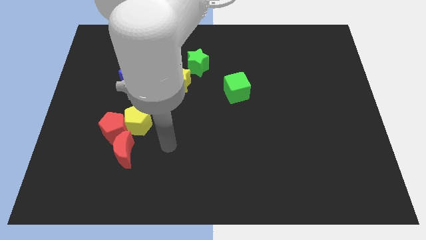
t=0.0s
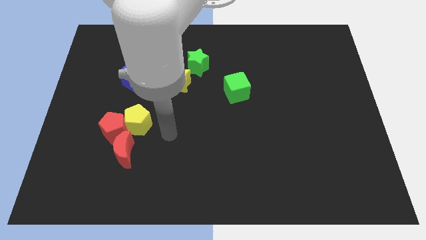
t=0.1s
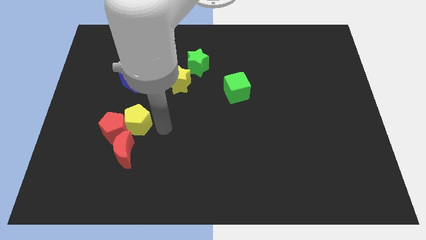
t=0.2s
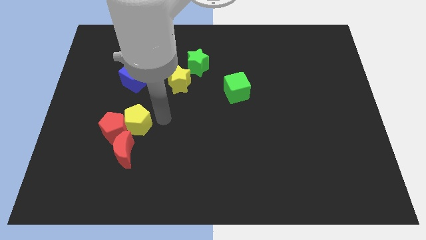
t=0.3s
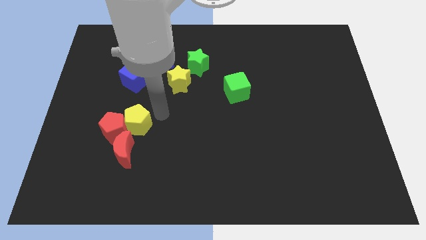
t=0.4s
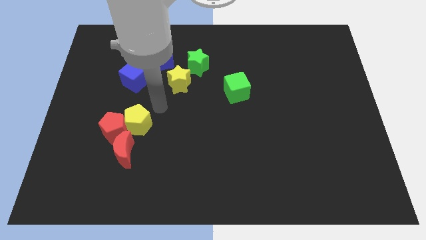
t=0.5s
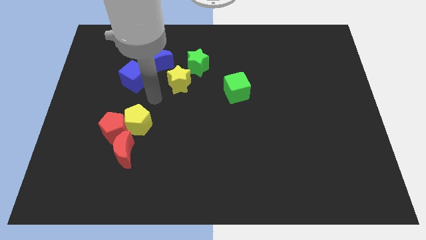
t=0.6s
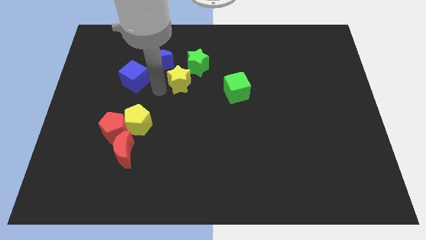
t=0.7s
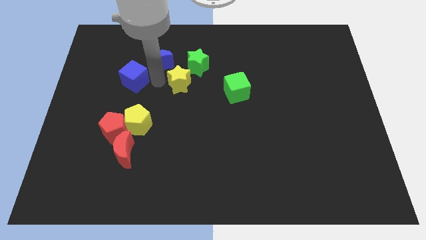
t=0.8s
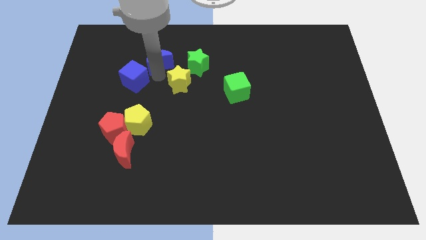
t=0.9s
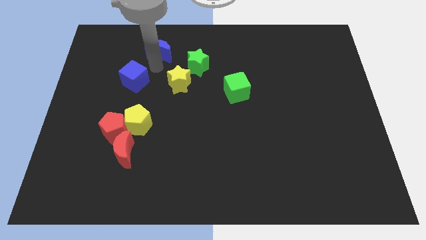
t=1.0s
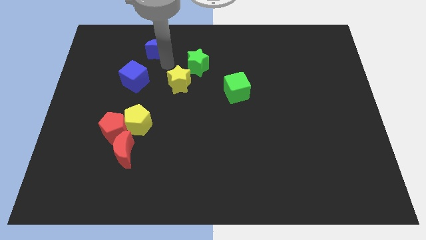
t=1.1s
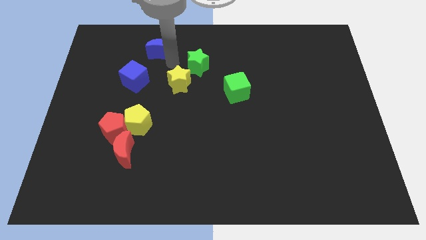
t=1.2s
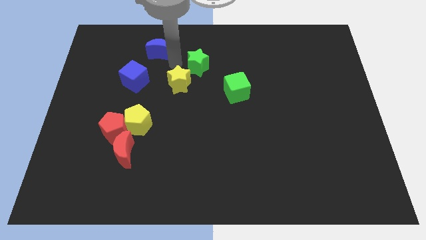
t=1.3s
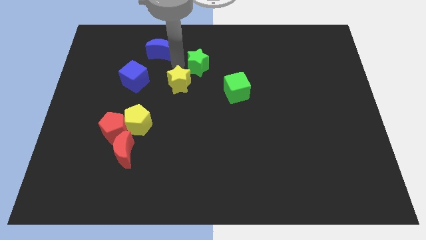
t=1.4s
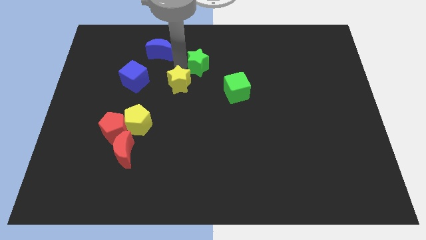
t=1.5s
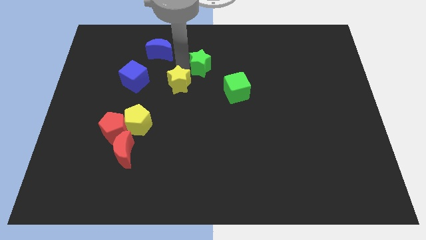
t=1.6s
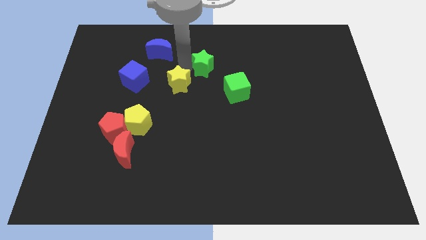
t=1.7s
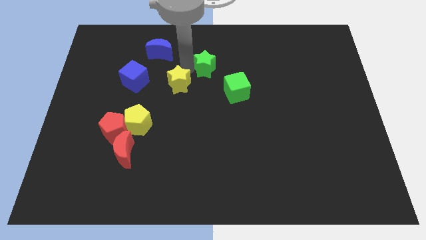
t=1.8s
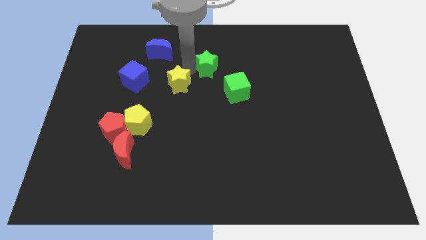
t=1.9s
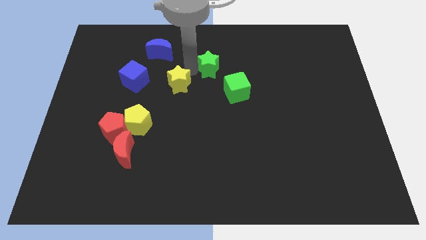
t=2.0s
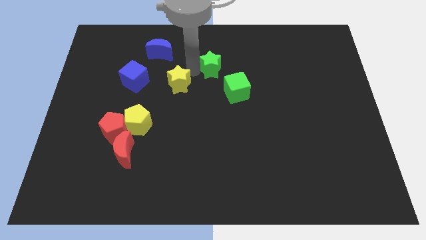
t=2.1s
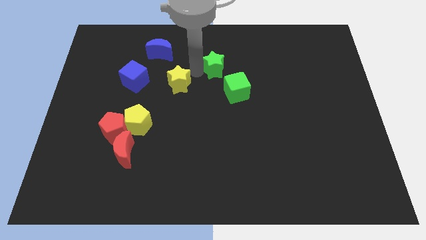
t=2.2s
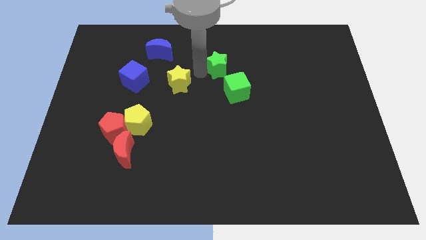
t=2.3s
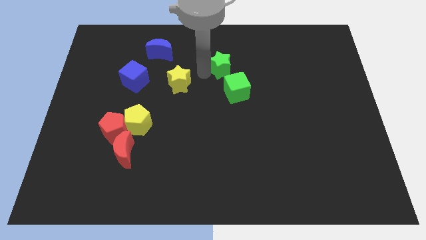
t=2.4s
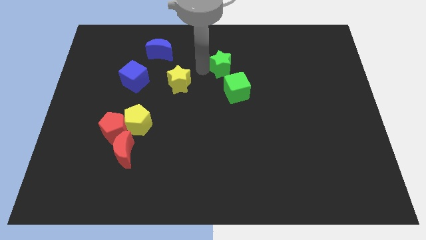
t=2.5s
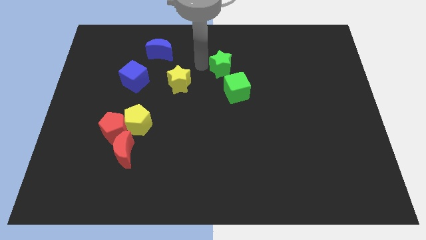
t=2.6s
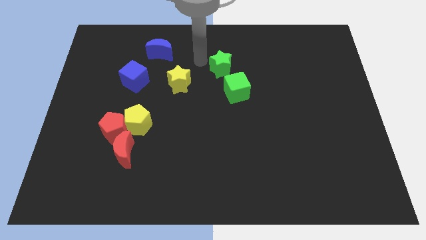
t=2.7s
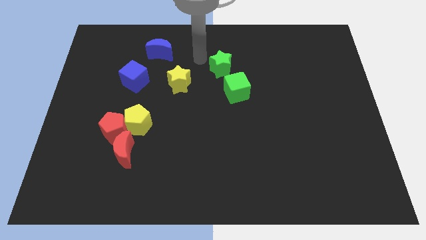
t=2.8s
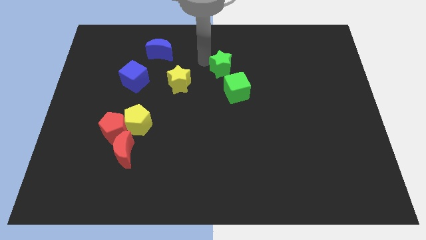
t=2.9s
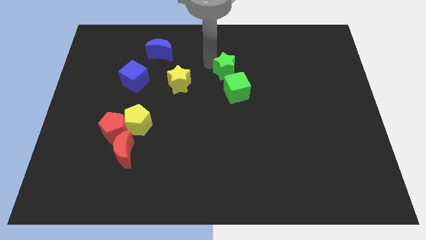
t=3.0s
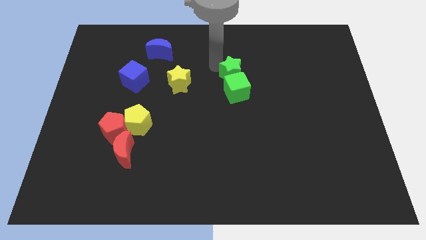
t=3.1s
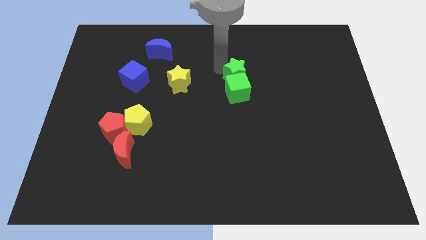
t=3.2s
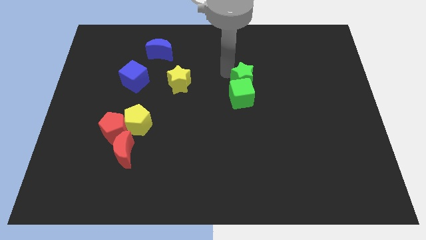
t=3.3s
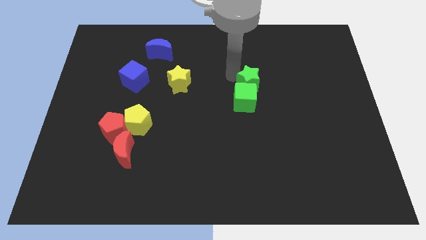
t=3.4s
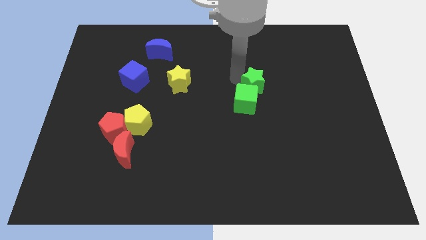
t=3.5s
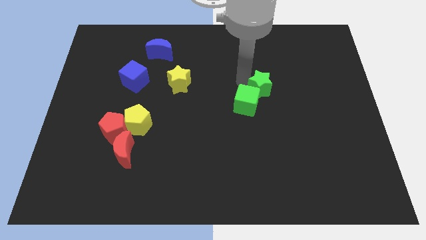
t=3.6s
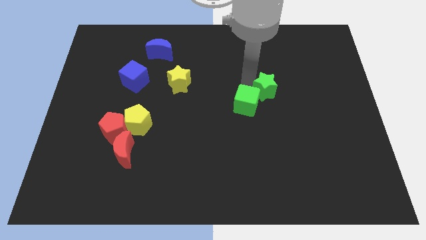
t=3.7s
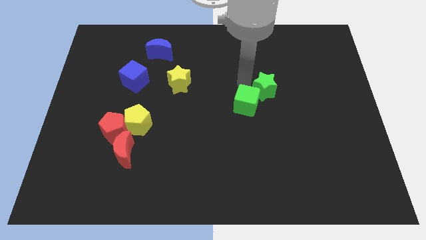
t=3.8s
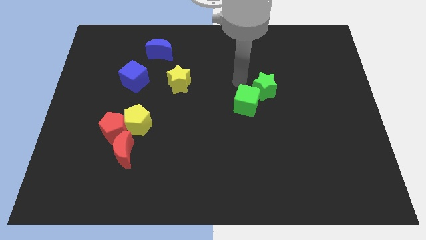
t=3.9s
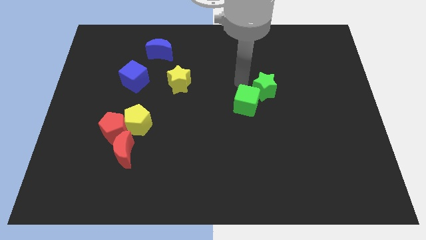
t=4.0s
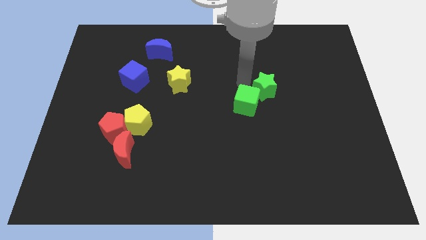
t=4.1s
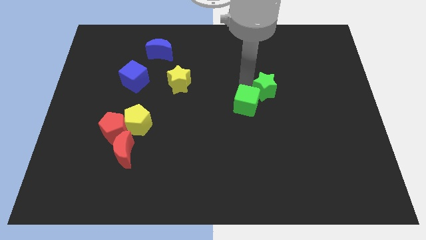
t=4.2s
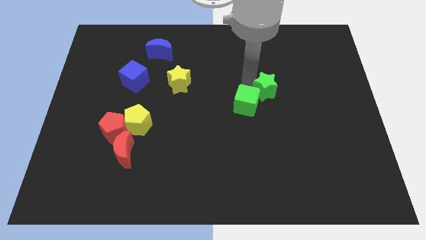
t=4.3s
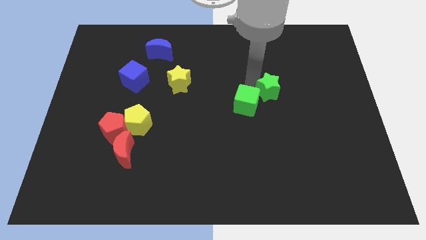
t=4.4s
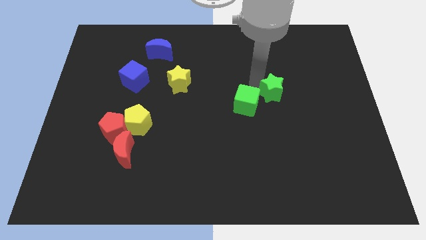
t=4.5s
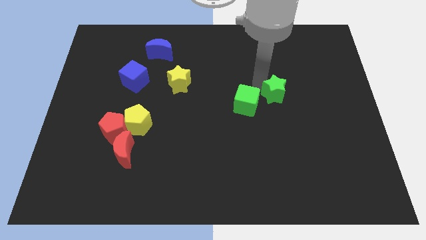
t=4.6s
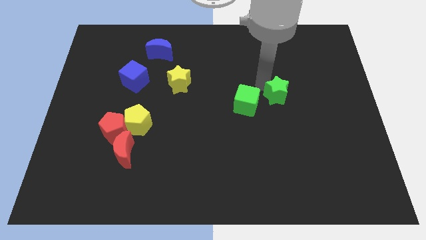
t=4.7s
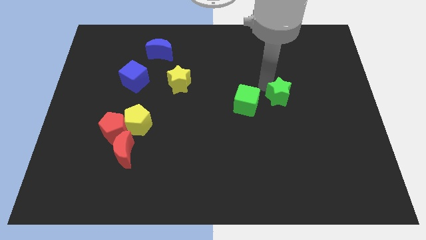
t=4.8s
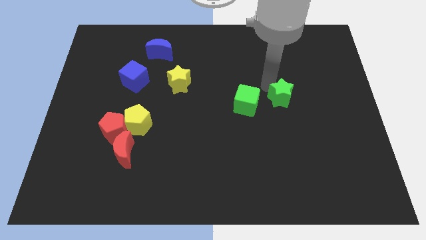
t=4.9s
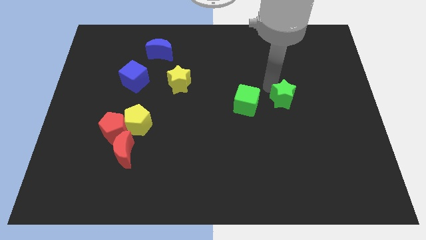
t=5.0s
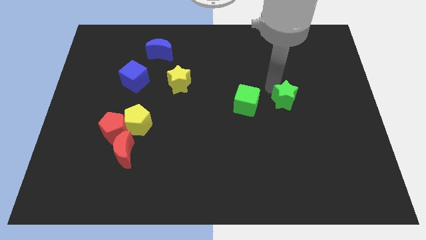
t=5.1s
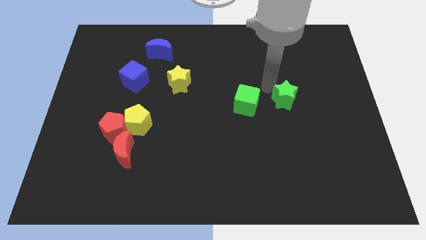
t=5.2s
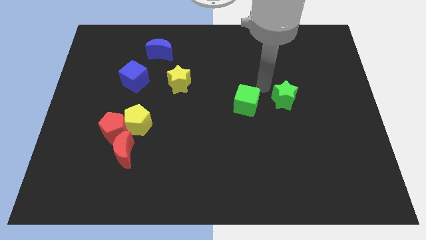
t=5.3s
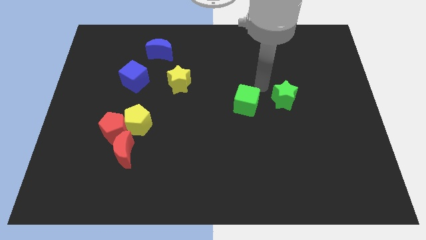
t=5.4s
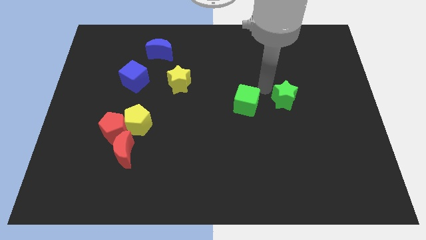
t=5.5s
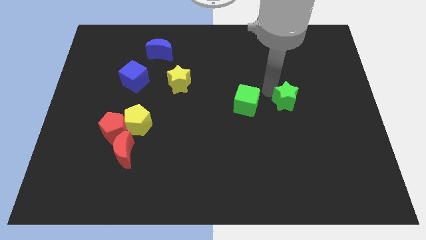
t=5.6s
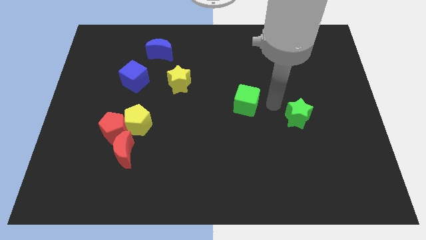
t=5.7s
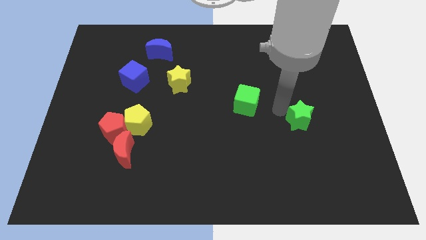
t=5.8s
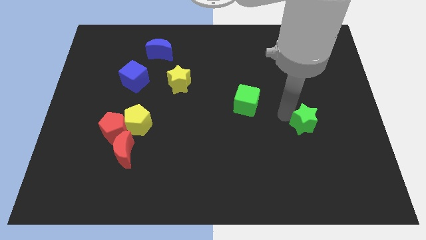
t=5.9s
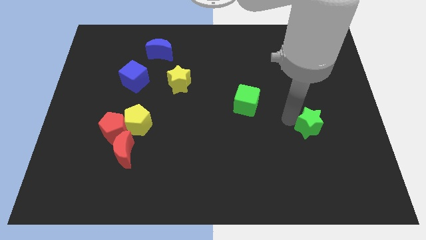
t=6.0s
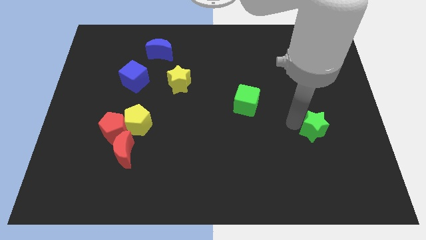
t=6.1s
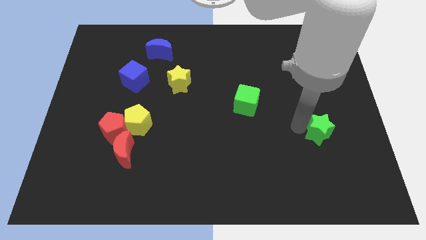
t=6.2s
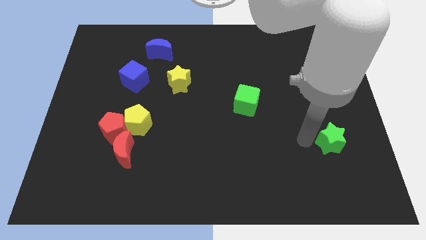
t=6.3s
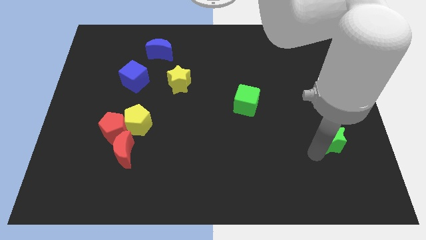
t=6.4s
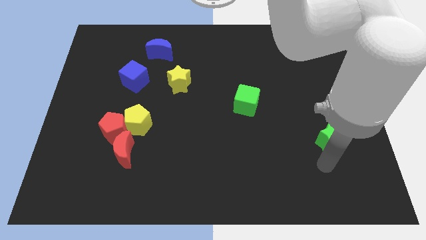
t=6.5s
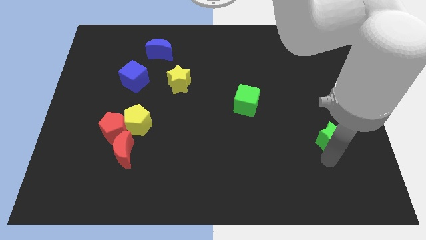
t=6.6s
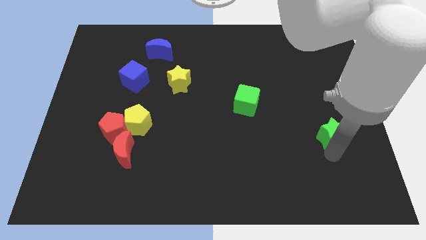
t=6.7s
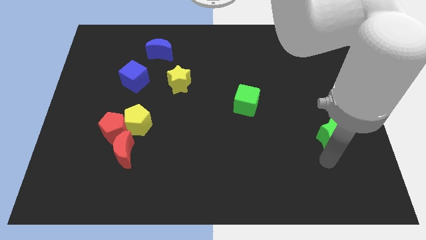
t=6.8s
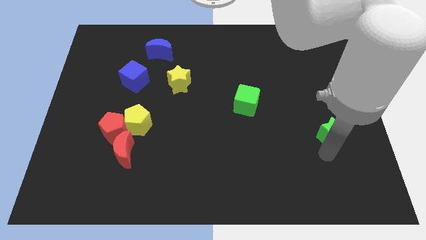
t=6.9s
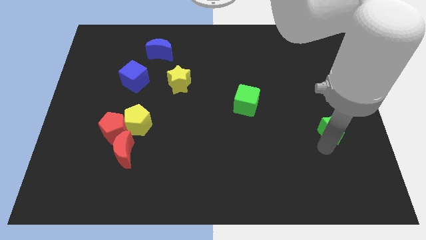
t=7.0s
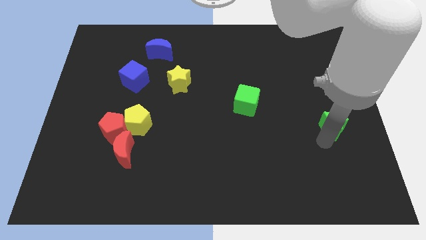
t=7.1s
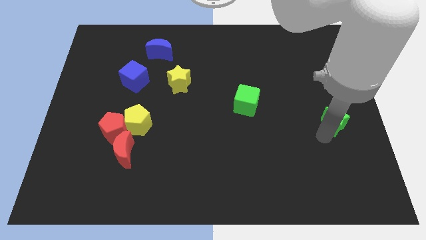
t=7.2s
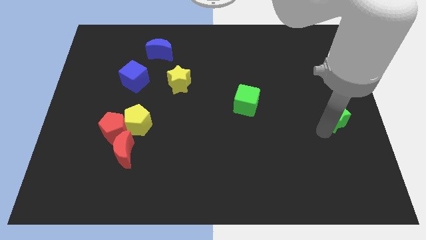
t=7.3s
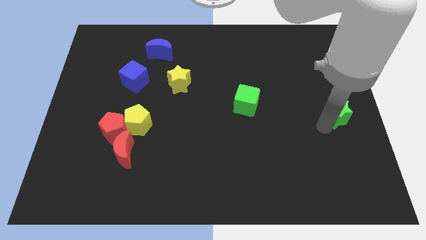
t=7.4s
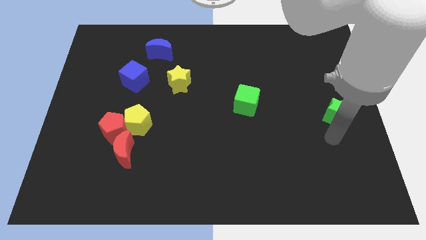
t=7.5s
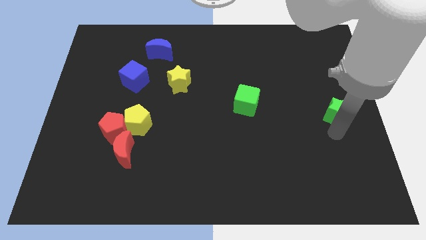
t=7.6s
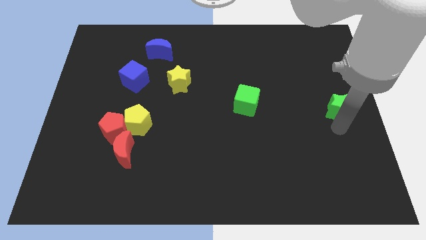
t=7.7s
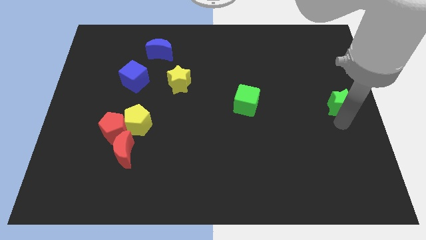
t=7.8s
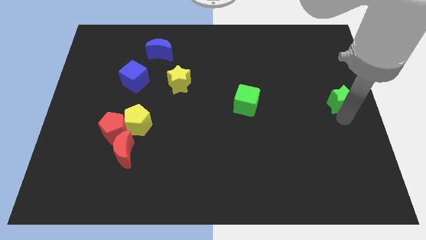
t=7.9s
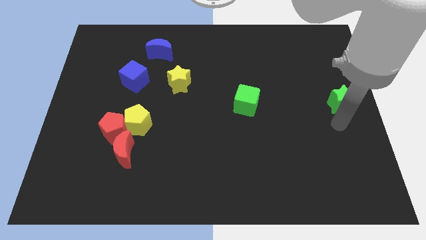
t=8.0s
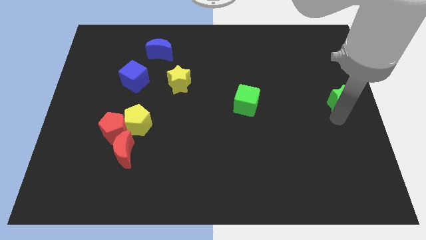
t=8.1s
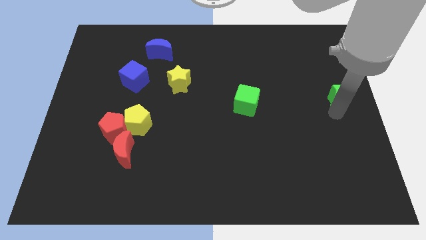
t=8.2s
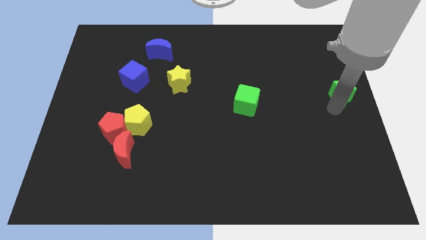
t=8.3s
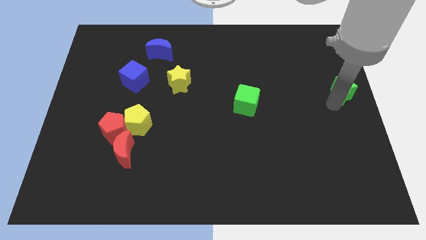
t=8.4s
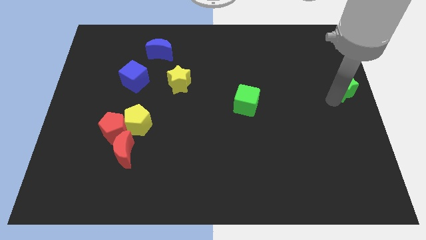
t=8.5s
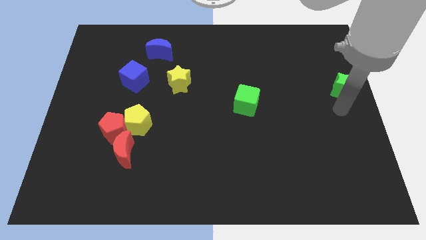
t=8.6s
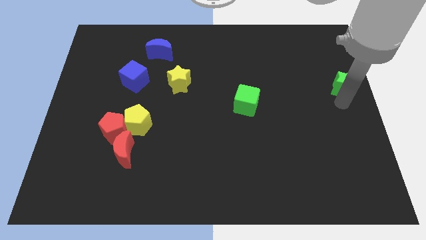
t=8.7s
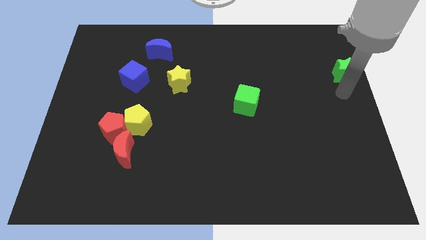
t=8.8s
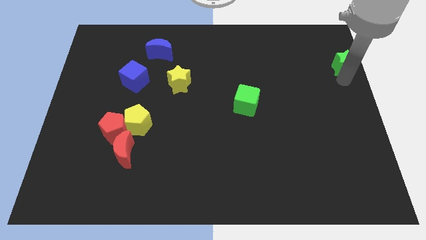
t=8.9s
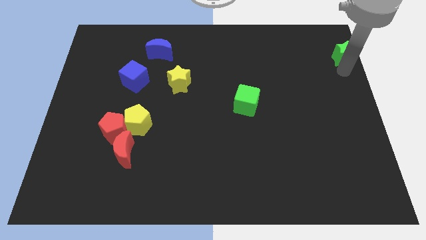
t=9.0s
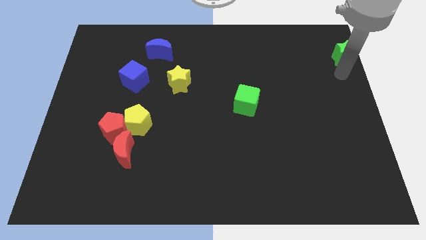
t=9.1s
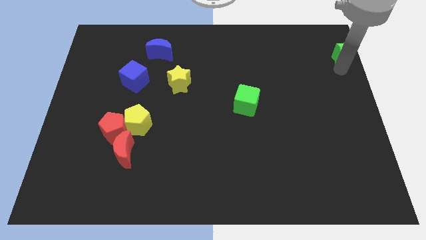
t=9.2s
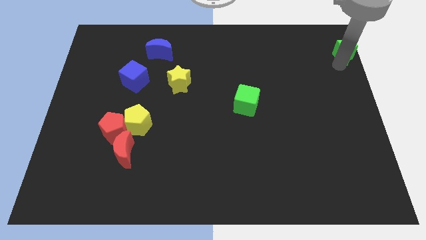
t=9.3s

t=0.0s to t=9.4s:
push the green star to the top right of the board
